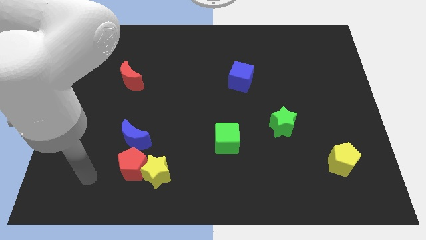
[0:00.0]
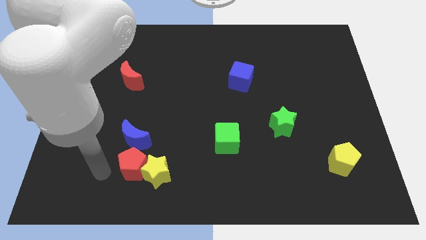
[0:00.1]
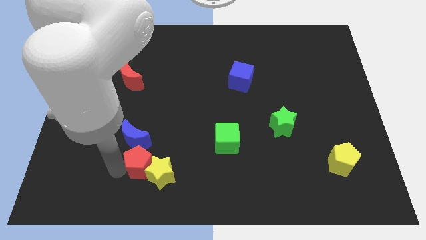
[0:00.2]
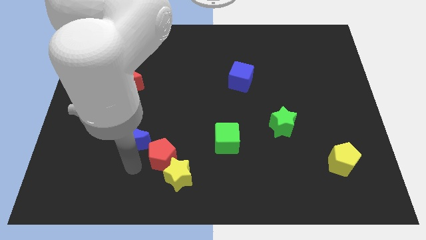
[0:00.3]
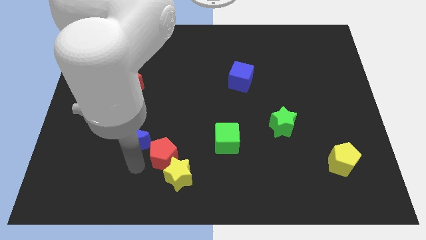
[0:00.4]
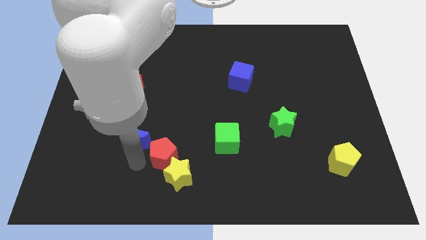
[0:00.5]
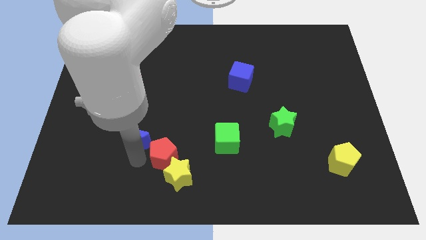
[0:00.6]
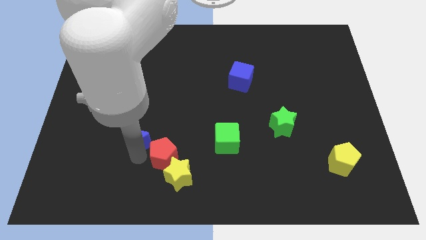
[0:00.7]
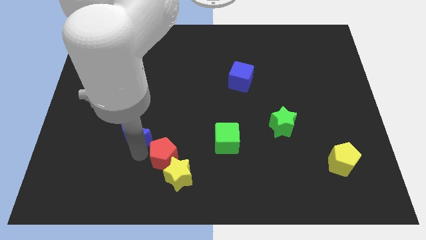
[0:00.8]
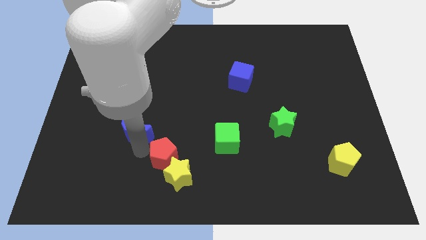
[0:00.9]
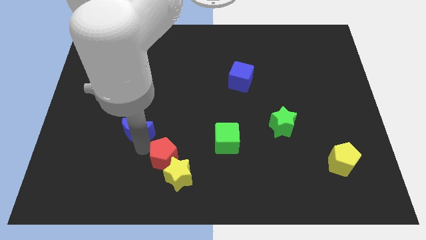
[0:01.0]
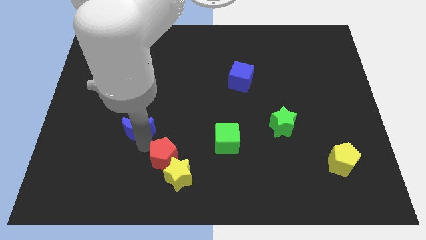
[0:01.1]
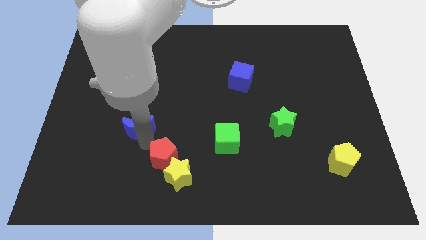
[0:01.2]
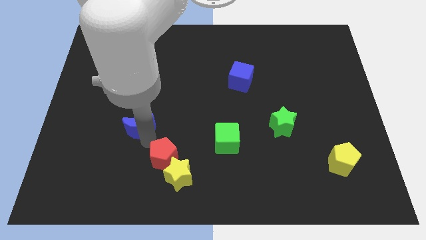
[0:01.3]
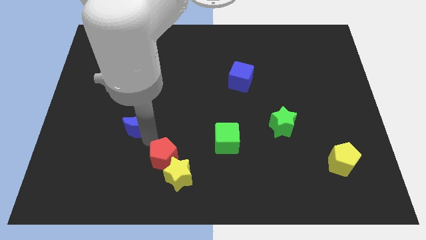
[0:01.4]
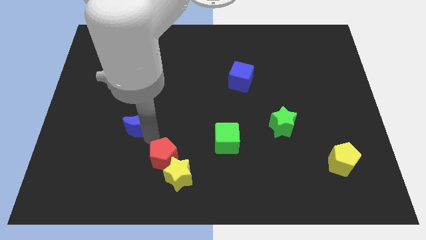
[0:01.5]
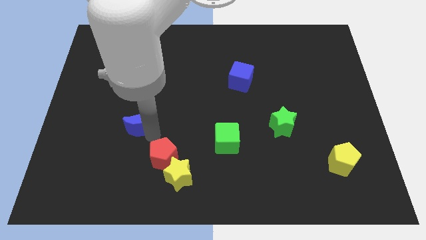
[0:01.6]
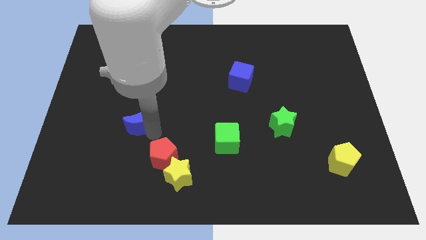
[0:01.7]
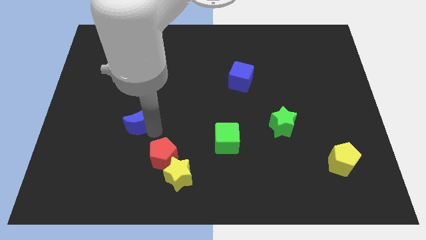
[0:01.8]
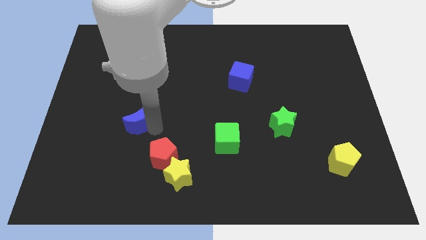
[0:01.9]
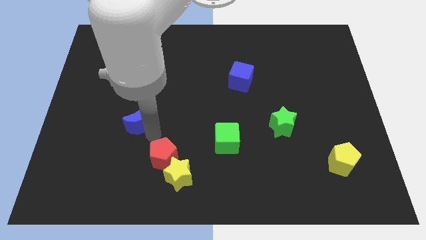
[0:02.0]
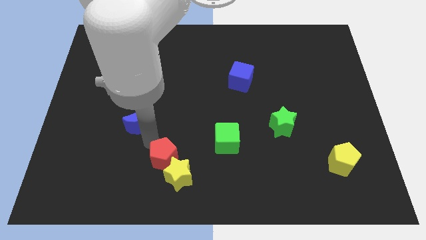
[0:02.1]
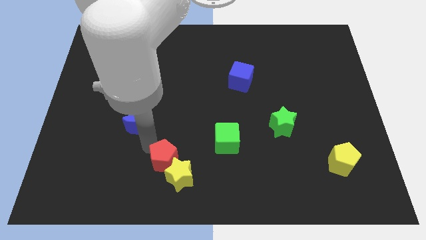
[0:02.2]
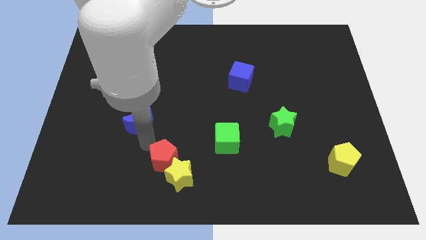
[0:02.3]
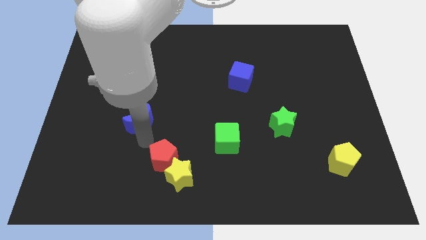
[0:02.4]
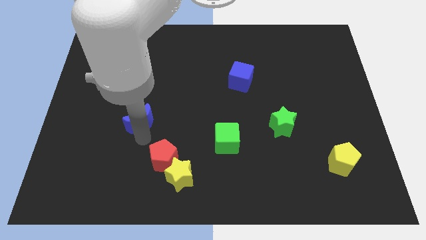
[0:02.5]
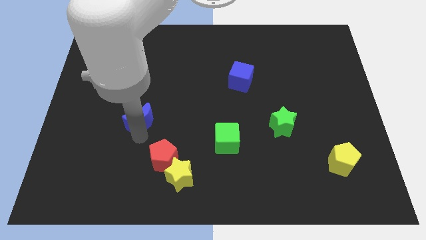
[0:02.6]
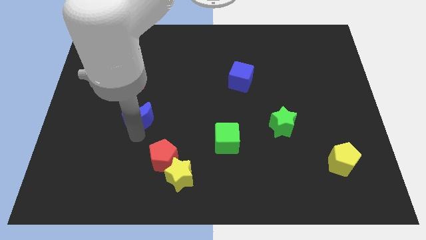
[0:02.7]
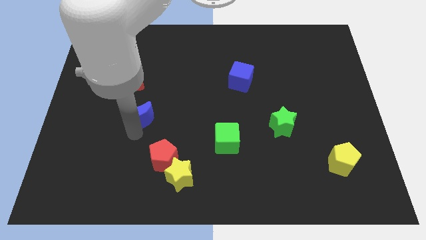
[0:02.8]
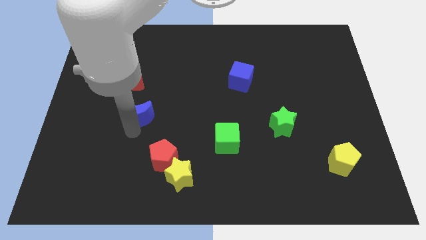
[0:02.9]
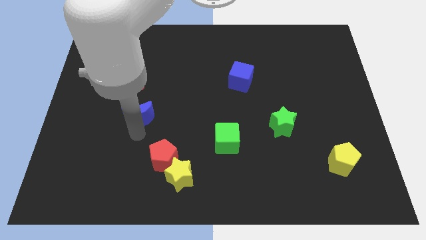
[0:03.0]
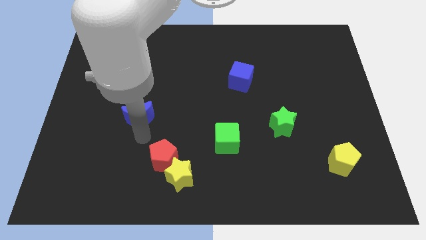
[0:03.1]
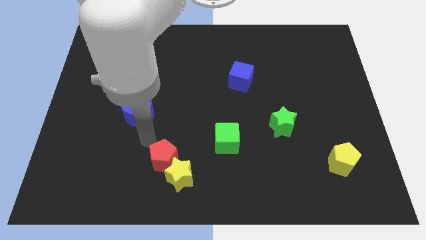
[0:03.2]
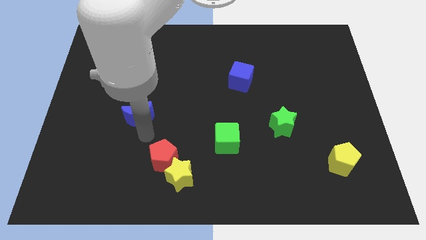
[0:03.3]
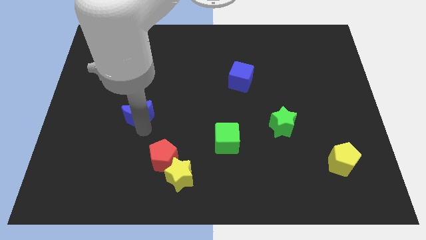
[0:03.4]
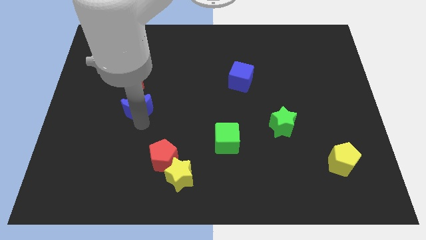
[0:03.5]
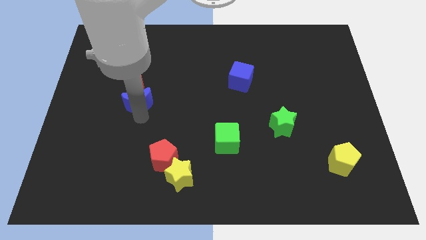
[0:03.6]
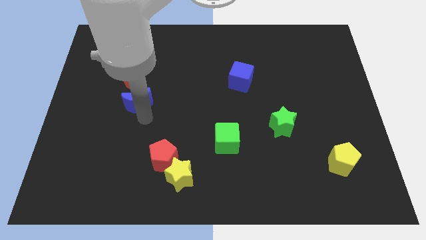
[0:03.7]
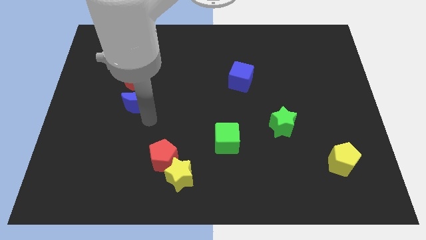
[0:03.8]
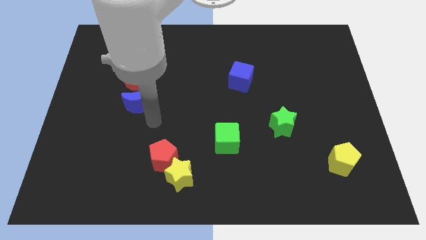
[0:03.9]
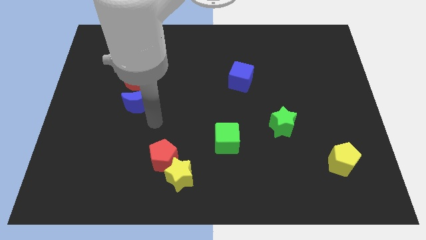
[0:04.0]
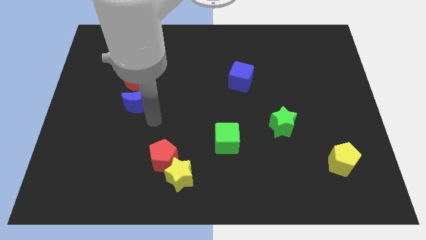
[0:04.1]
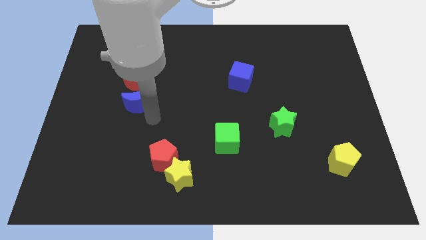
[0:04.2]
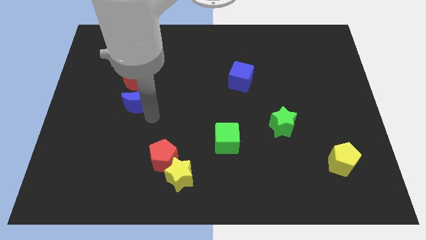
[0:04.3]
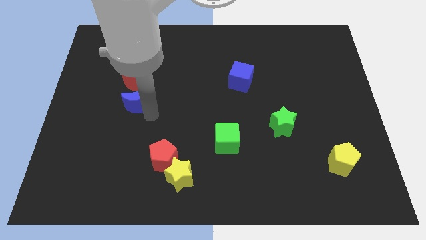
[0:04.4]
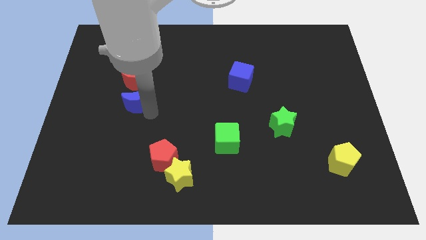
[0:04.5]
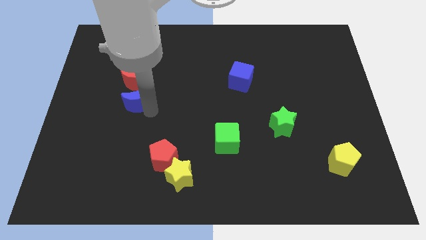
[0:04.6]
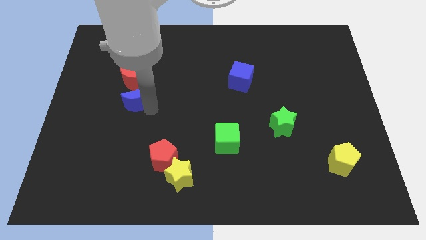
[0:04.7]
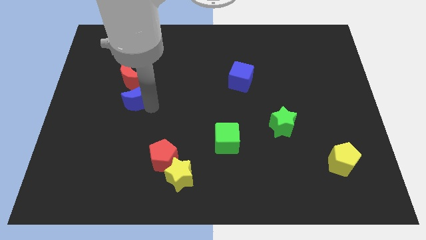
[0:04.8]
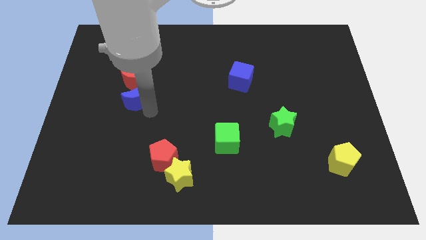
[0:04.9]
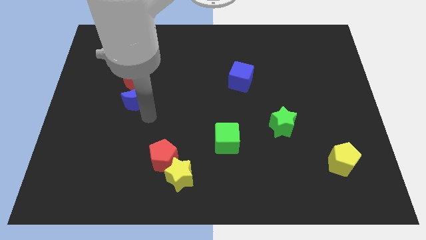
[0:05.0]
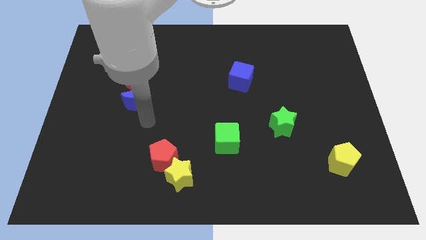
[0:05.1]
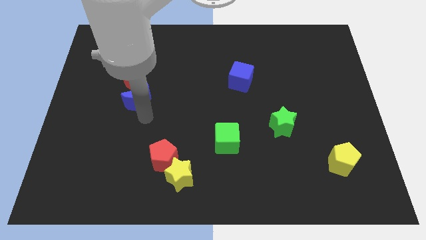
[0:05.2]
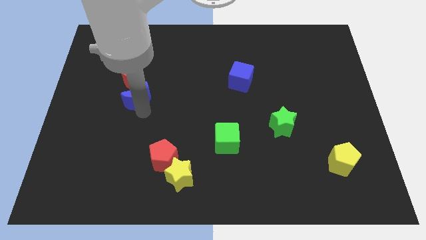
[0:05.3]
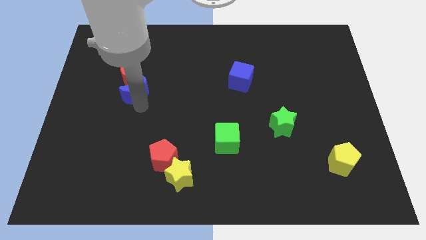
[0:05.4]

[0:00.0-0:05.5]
slide the blue moon close to the red moon

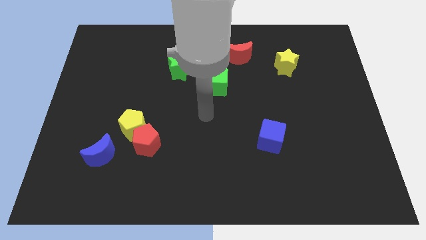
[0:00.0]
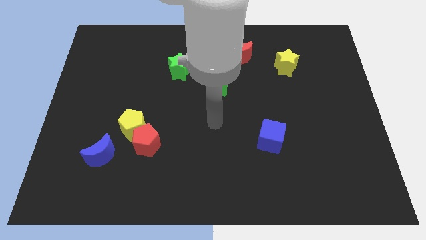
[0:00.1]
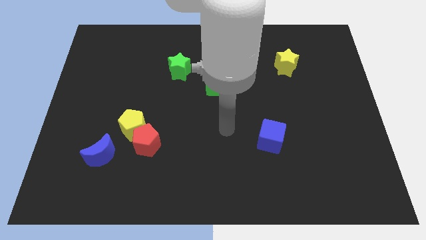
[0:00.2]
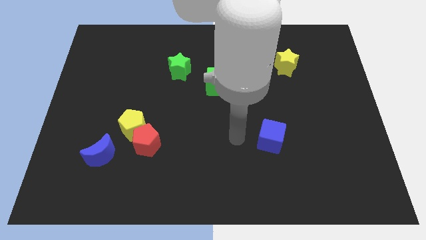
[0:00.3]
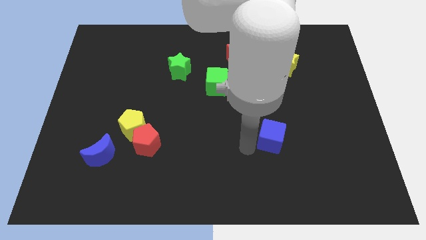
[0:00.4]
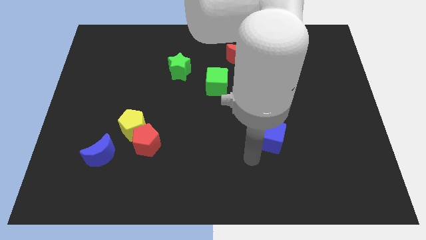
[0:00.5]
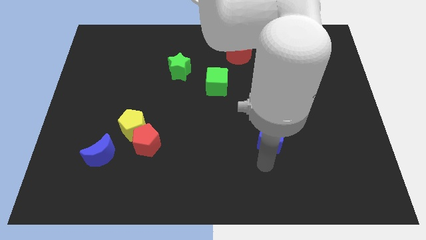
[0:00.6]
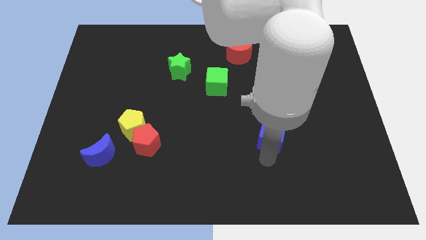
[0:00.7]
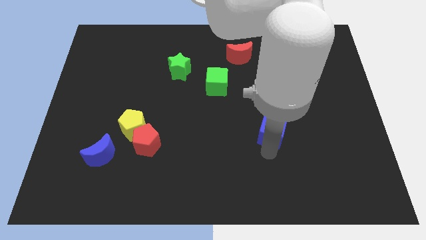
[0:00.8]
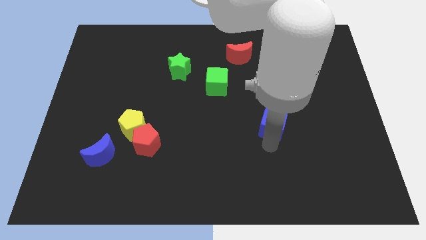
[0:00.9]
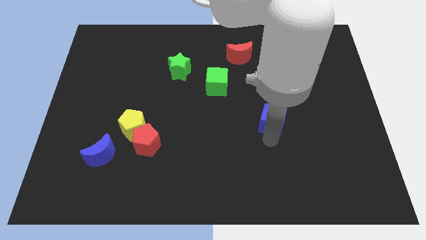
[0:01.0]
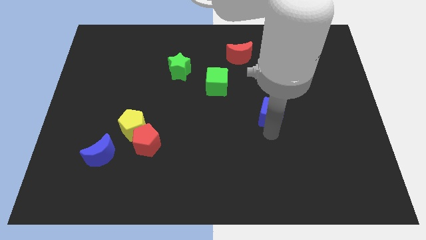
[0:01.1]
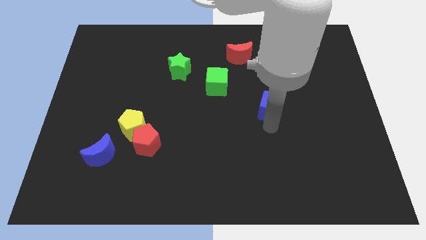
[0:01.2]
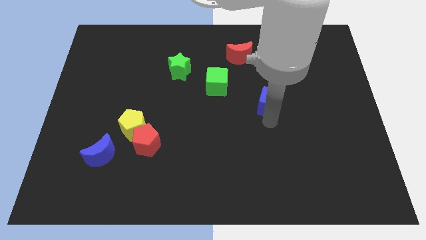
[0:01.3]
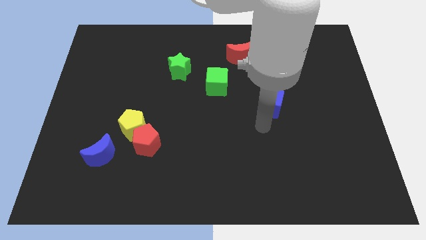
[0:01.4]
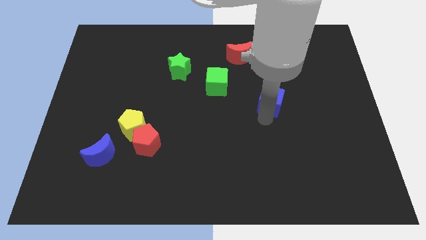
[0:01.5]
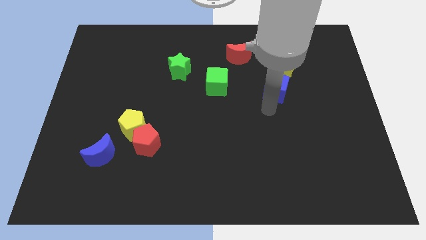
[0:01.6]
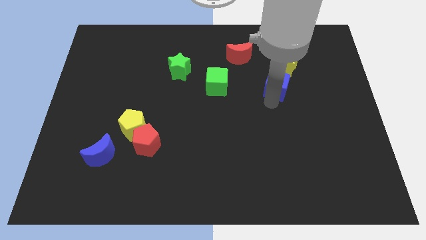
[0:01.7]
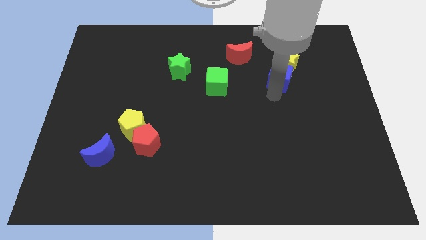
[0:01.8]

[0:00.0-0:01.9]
put the blue cube next to the yellow star
